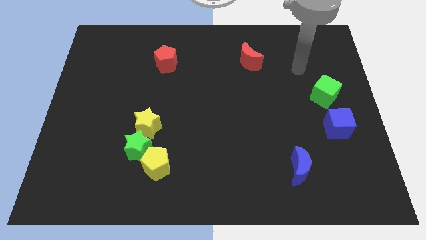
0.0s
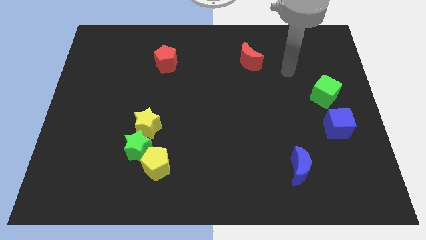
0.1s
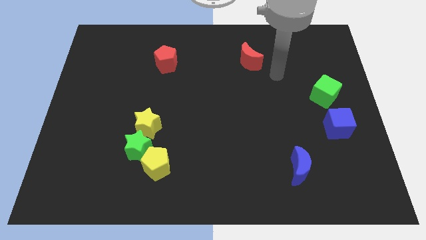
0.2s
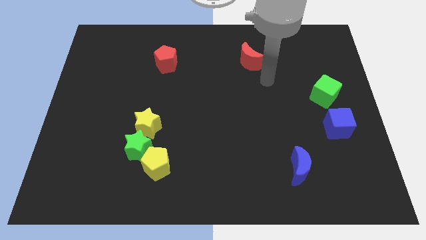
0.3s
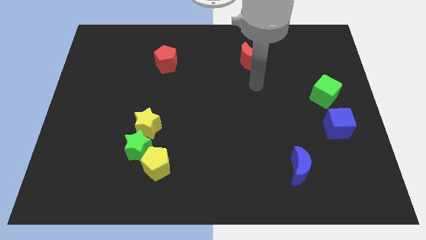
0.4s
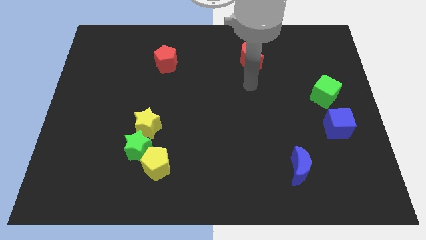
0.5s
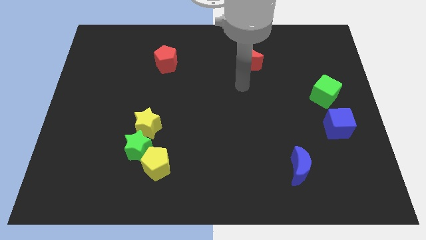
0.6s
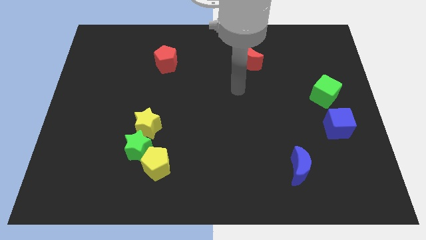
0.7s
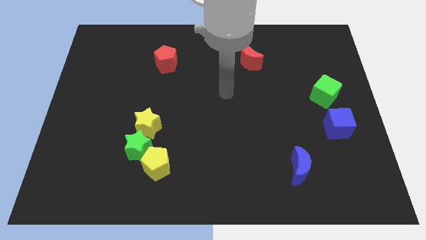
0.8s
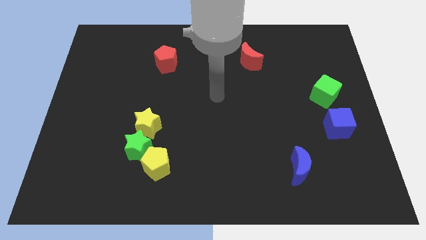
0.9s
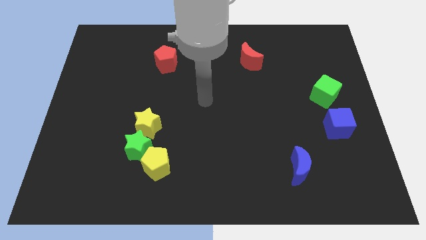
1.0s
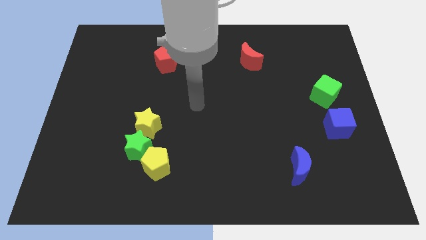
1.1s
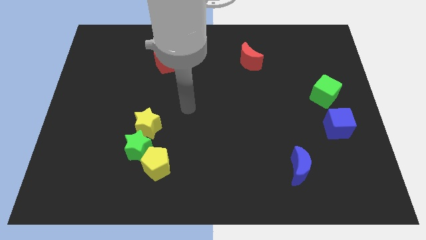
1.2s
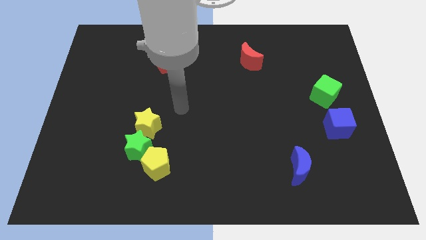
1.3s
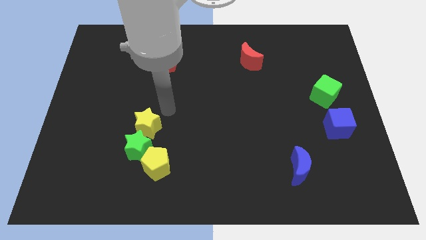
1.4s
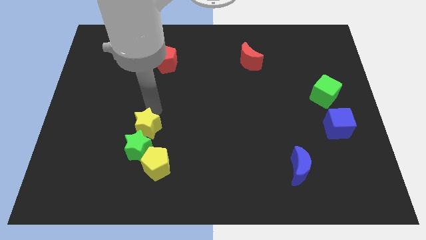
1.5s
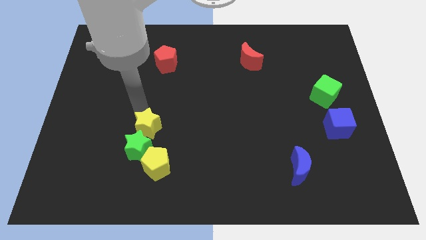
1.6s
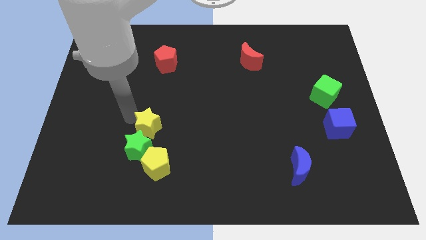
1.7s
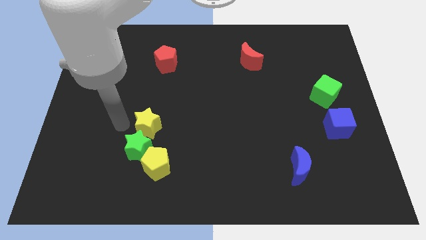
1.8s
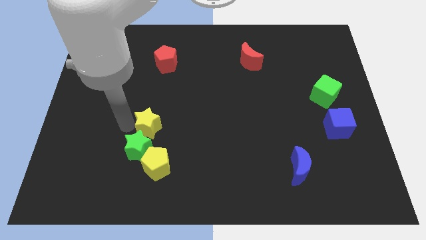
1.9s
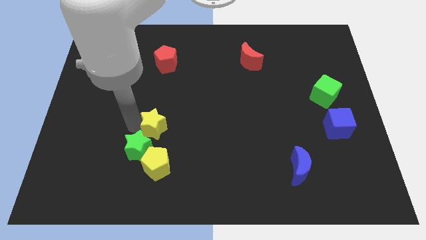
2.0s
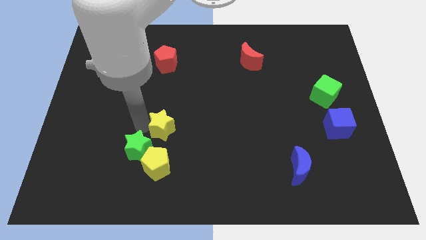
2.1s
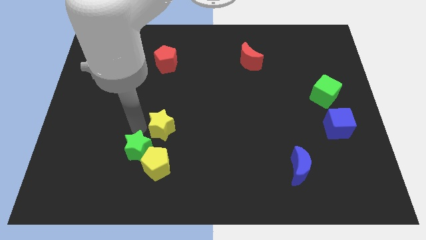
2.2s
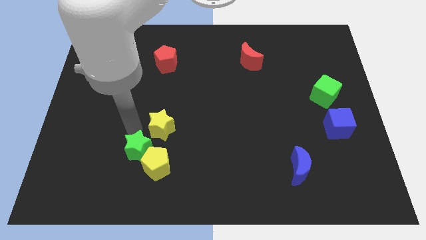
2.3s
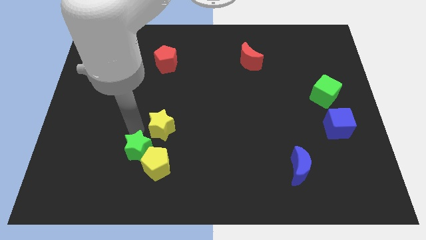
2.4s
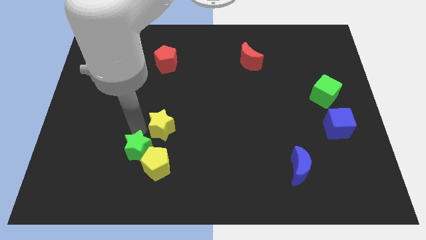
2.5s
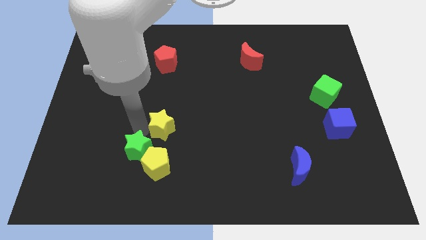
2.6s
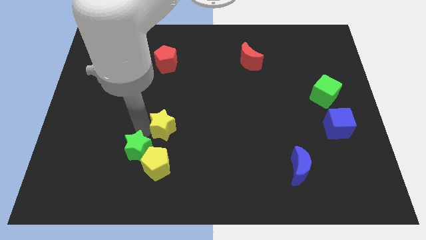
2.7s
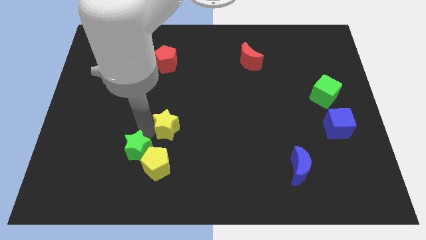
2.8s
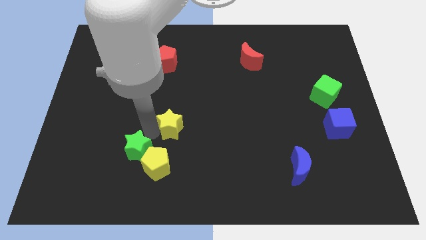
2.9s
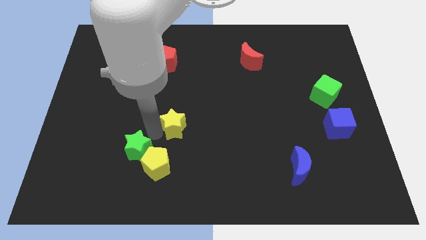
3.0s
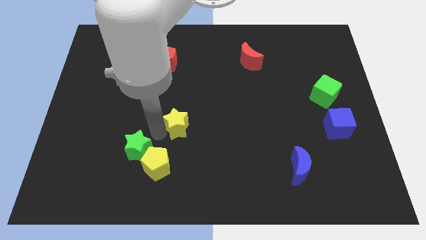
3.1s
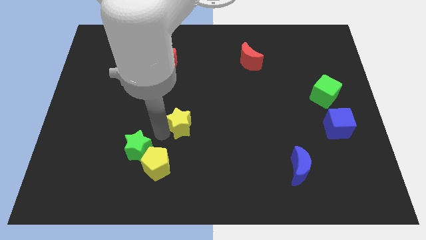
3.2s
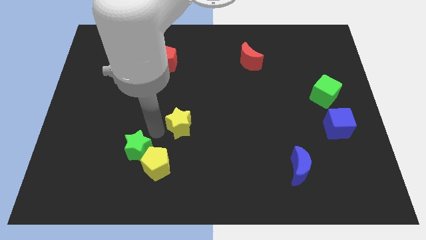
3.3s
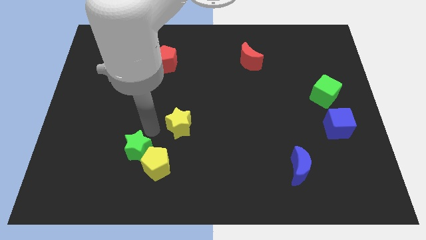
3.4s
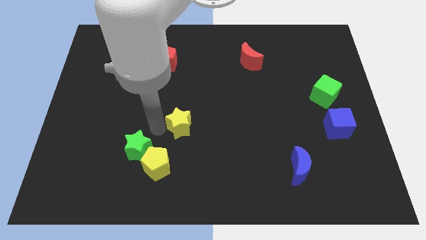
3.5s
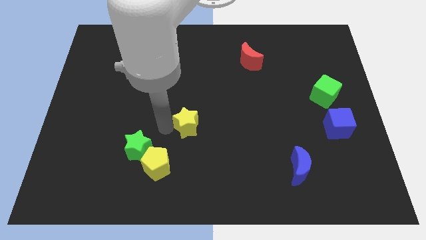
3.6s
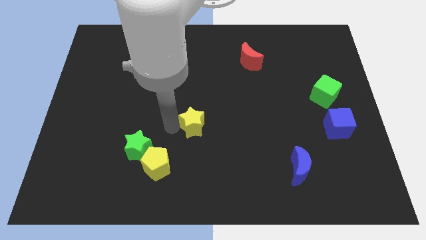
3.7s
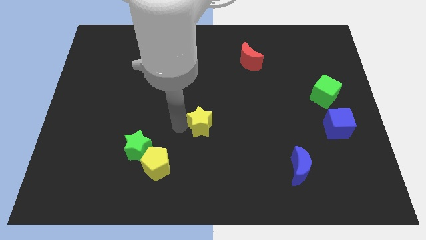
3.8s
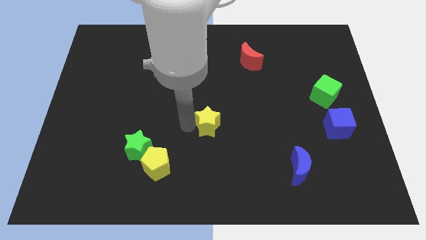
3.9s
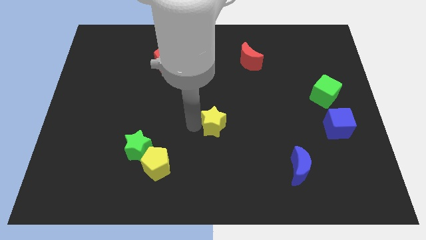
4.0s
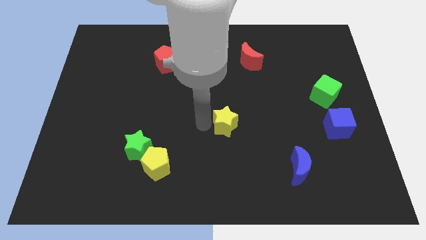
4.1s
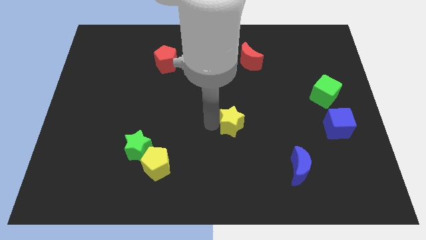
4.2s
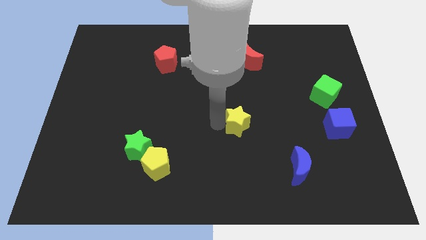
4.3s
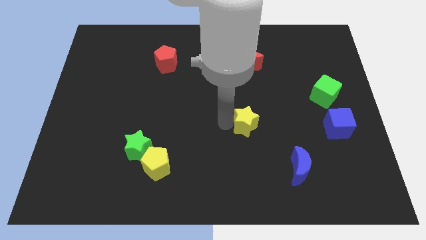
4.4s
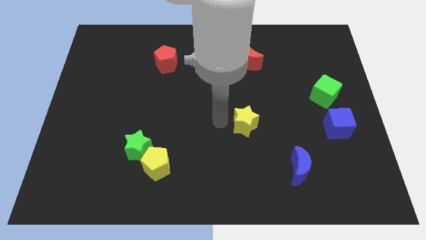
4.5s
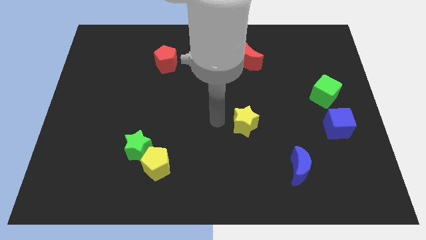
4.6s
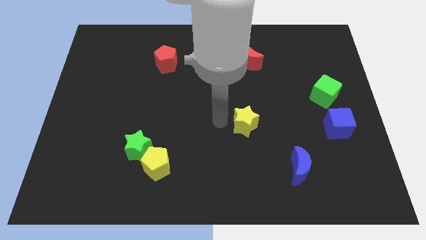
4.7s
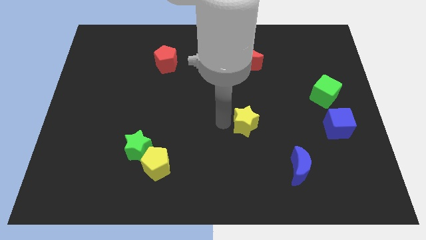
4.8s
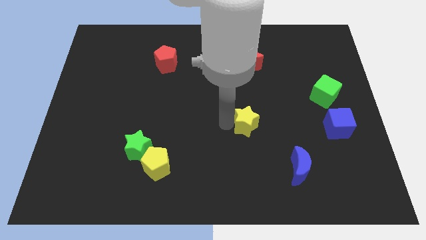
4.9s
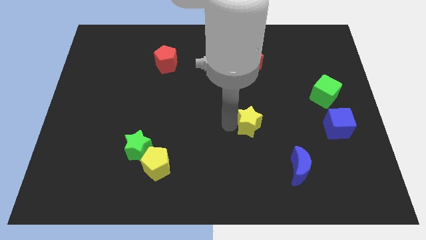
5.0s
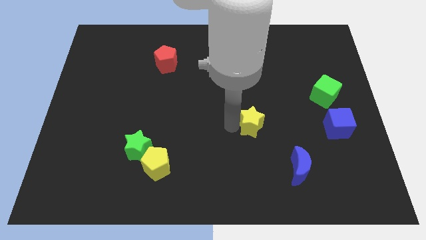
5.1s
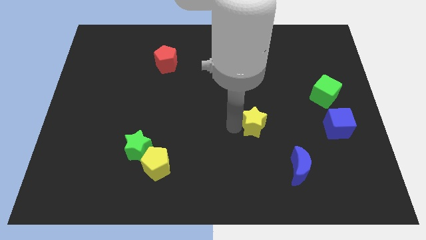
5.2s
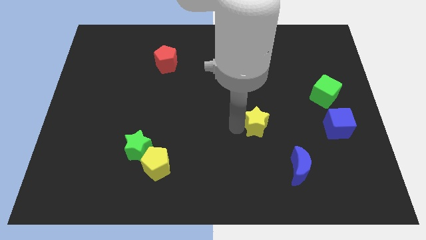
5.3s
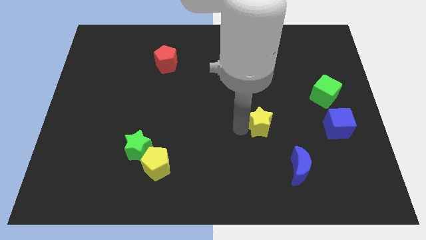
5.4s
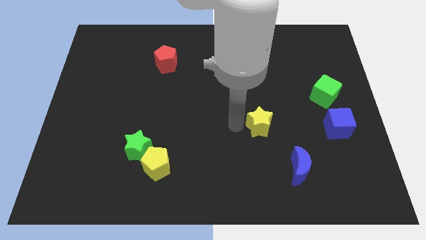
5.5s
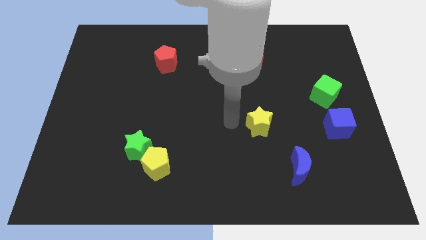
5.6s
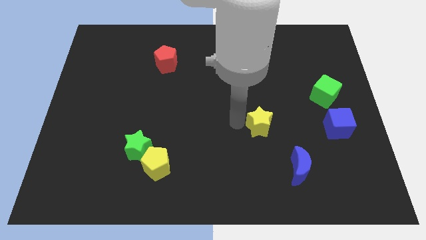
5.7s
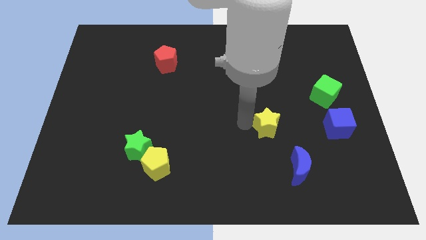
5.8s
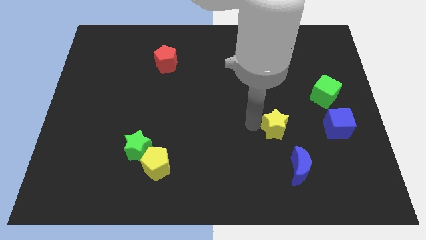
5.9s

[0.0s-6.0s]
put the yellow star above the blue moon

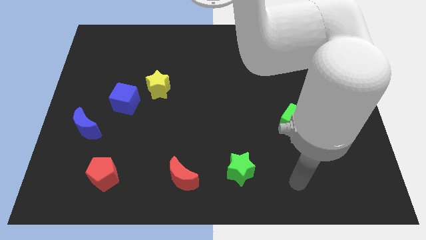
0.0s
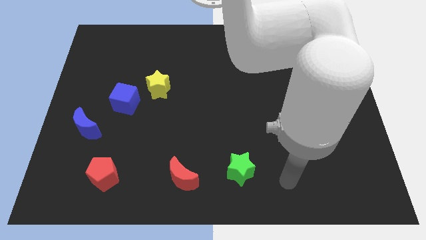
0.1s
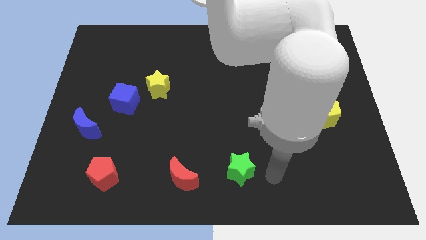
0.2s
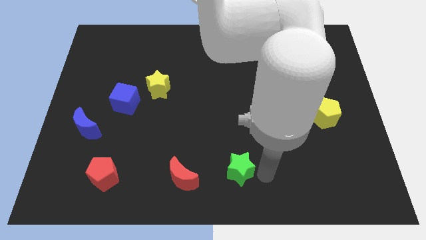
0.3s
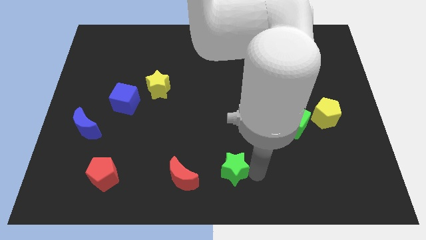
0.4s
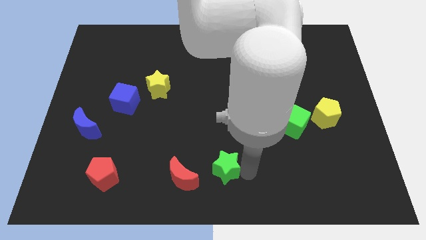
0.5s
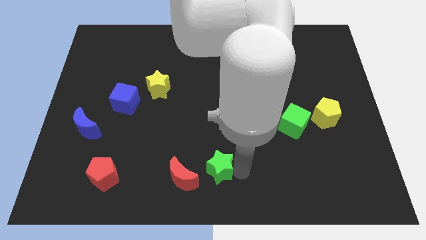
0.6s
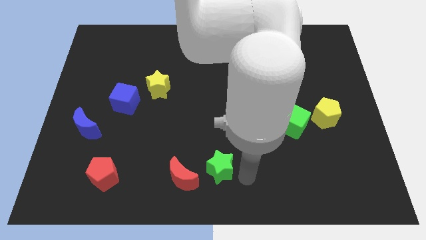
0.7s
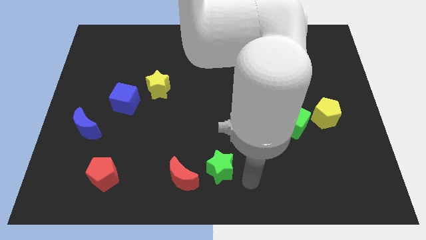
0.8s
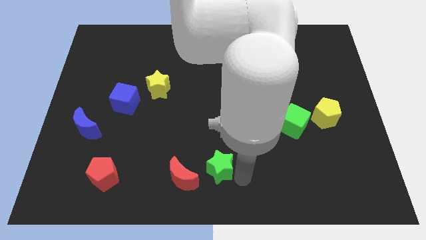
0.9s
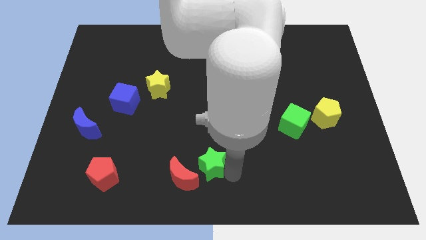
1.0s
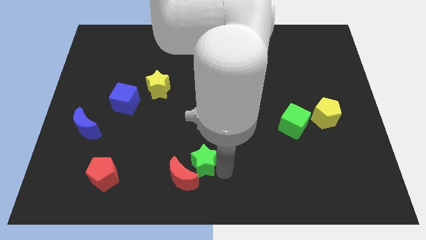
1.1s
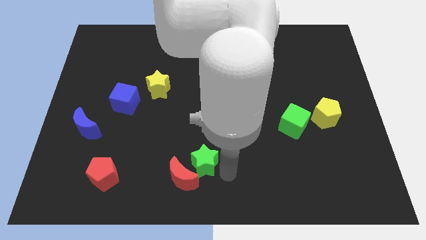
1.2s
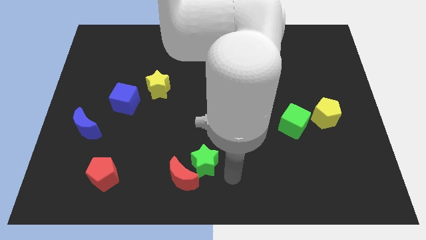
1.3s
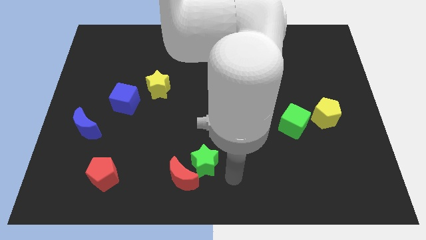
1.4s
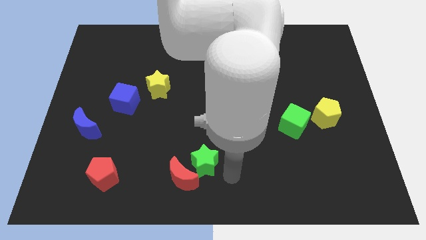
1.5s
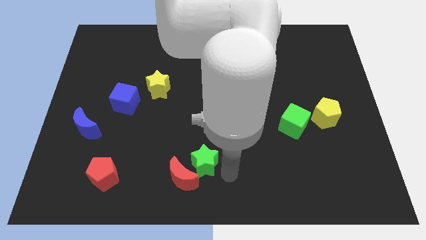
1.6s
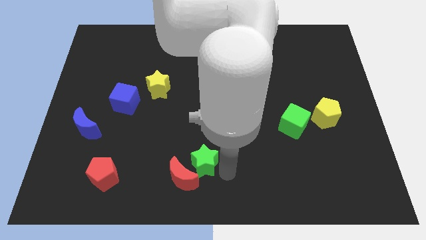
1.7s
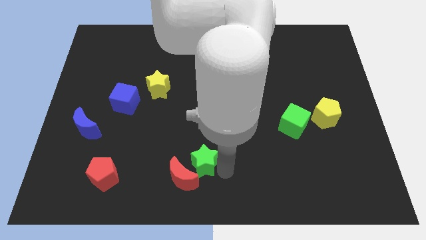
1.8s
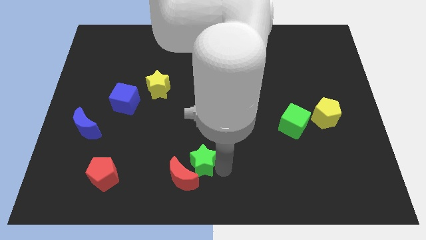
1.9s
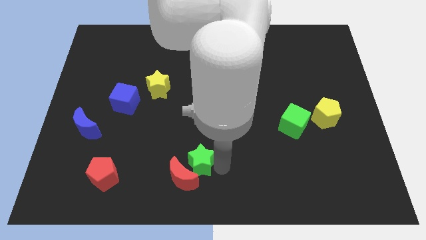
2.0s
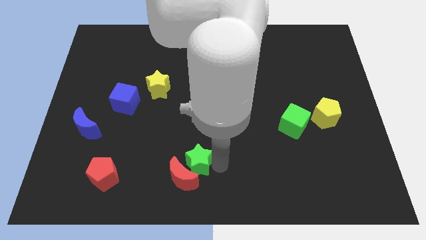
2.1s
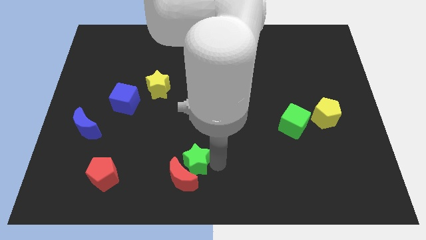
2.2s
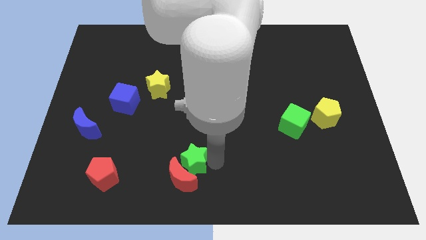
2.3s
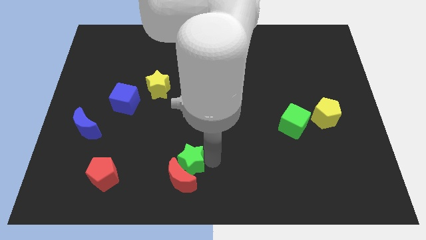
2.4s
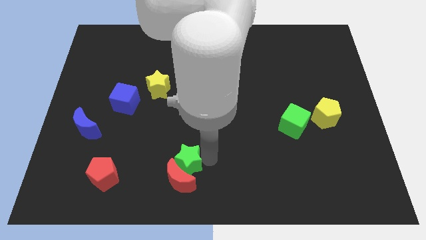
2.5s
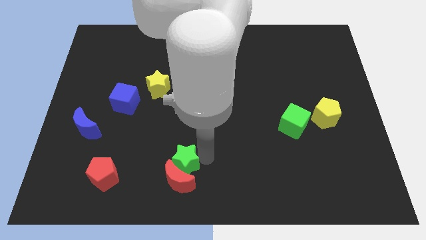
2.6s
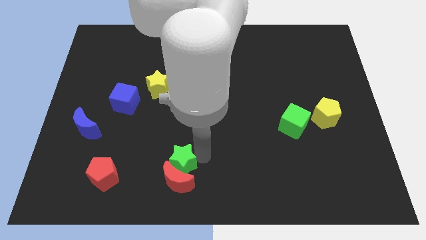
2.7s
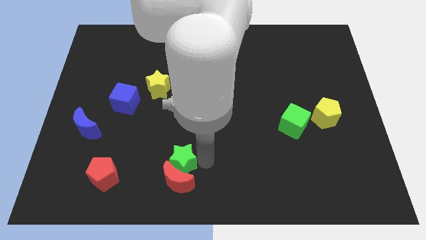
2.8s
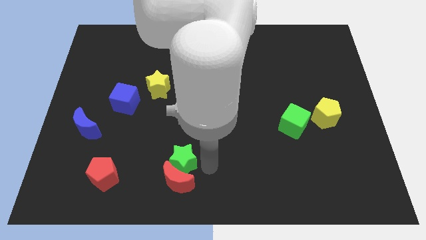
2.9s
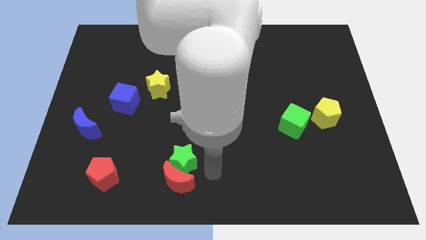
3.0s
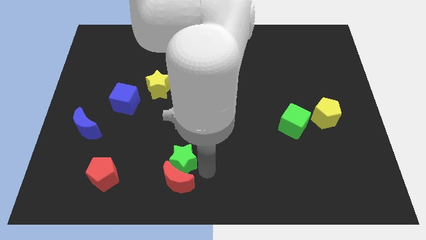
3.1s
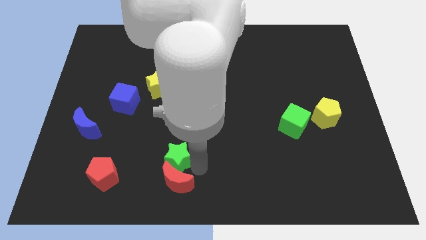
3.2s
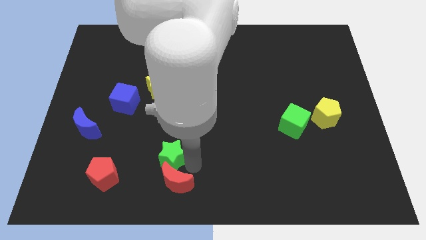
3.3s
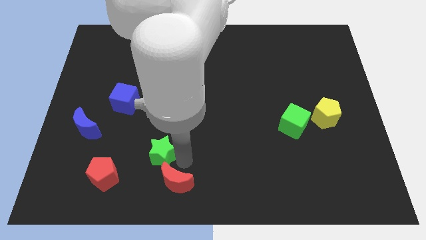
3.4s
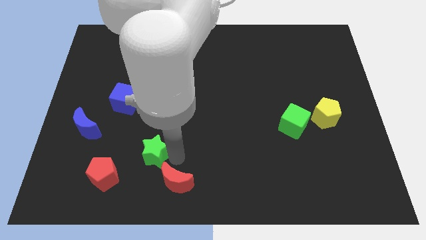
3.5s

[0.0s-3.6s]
put the green star diagonally up and to the right of the red pentagon
